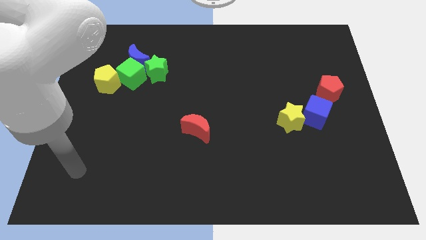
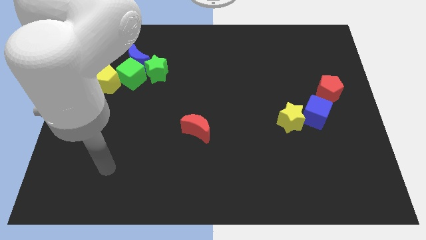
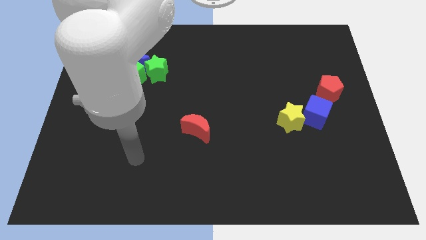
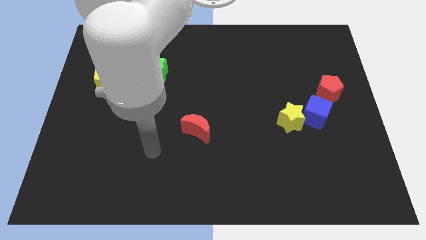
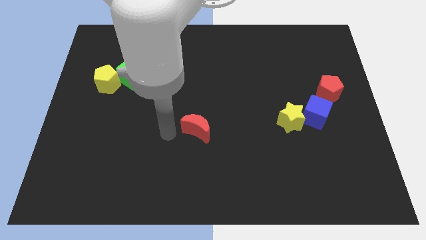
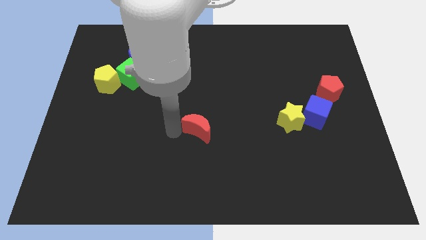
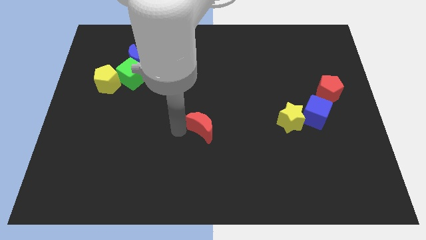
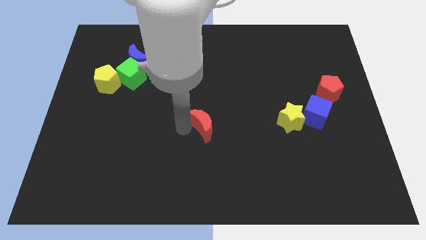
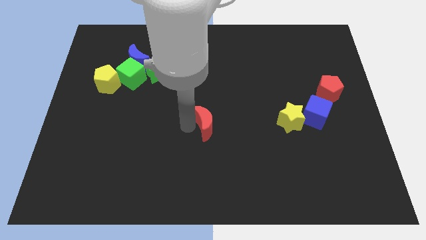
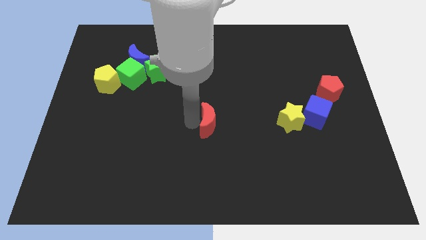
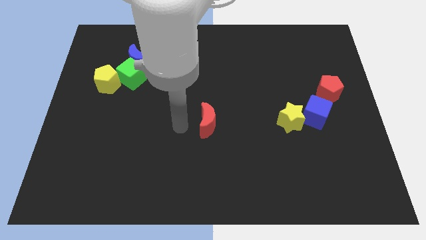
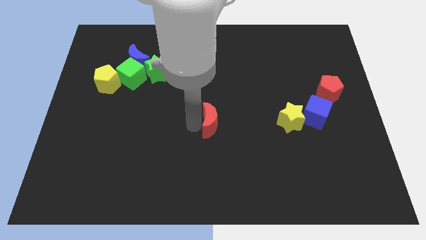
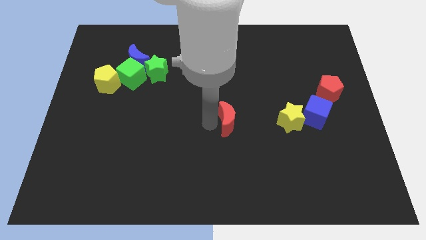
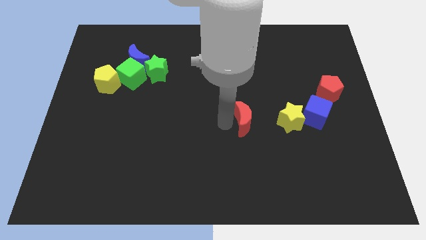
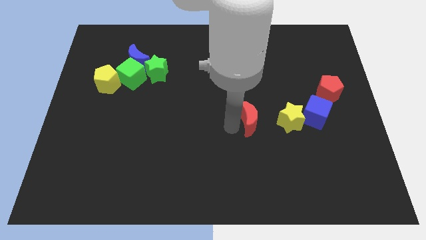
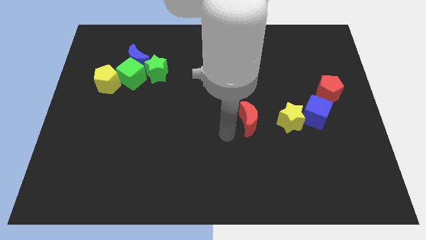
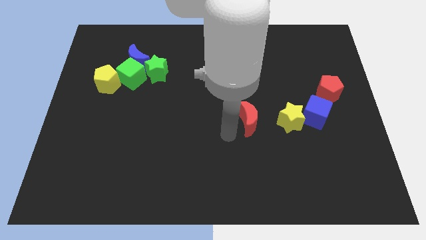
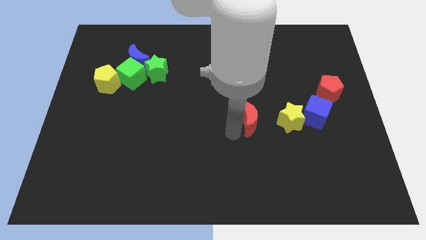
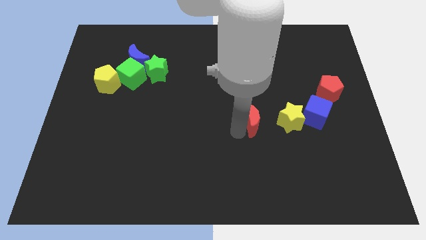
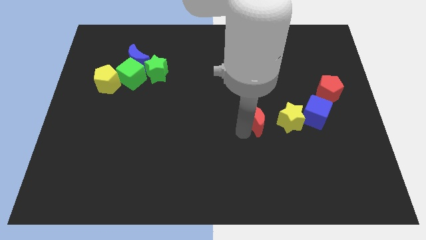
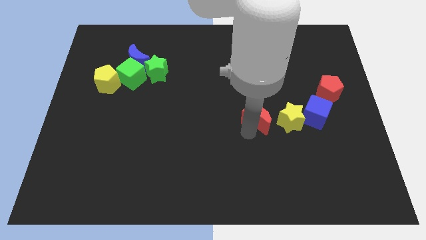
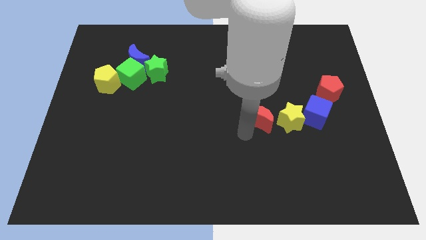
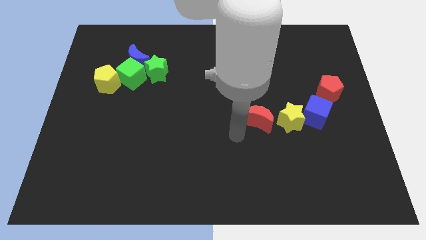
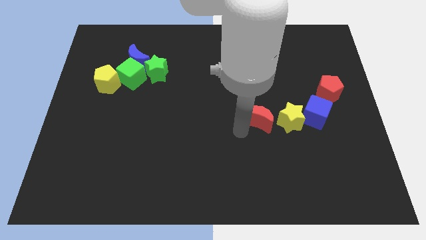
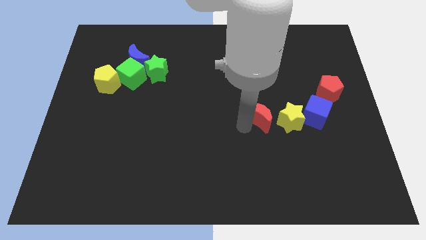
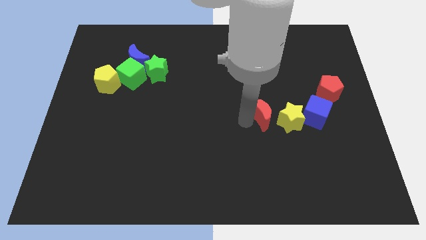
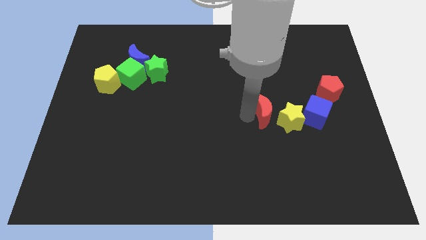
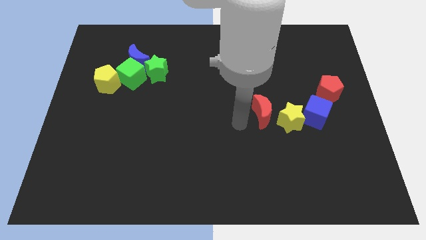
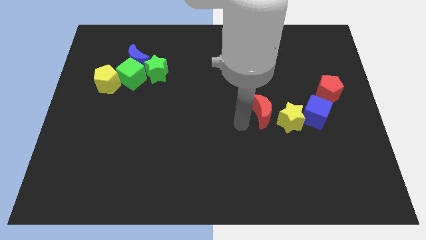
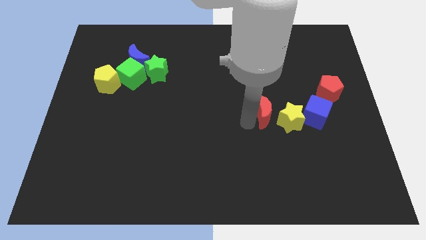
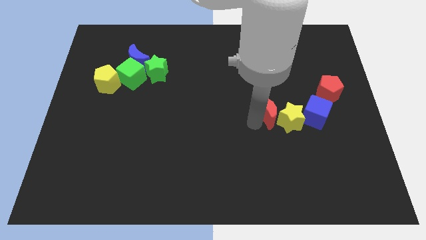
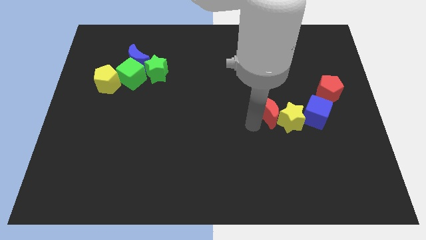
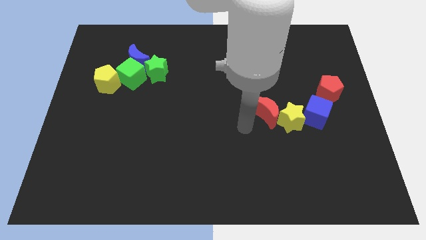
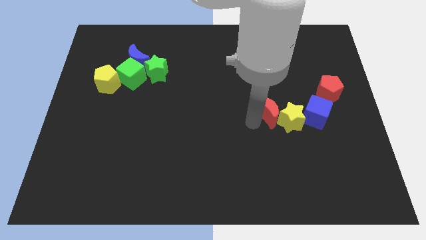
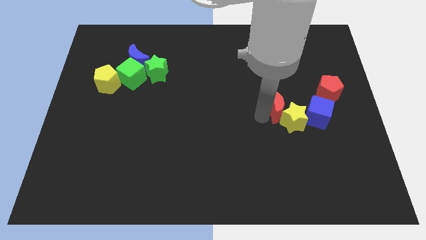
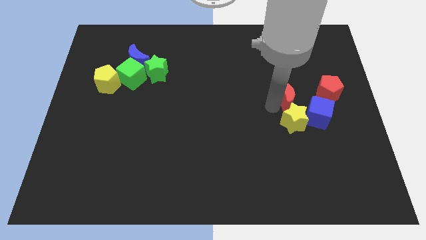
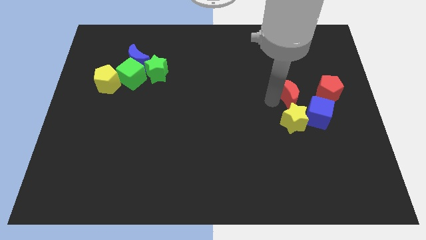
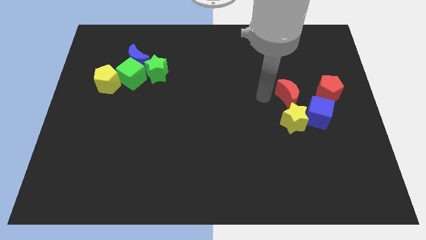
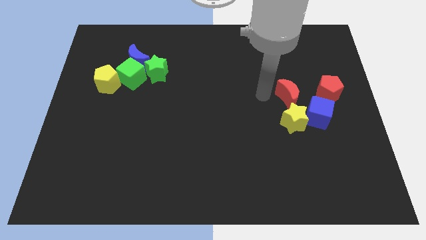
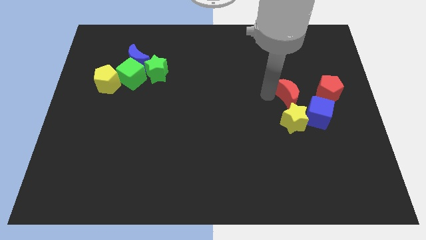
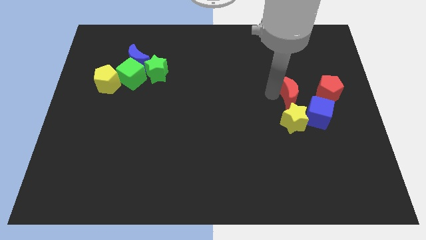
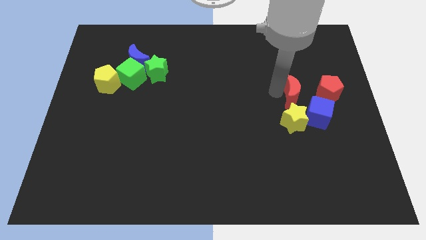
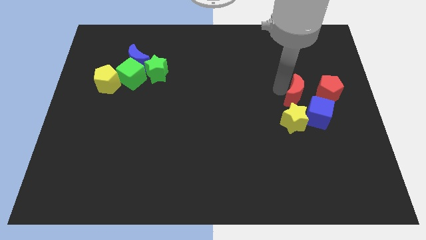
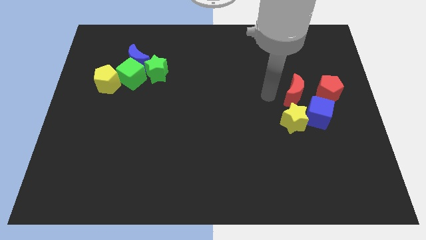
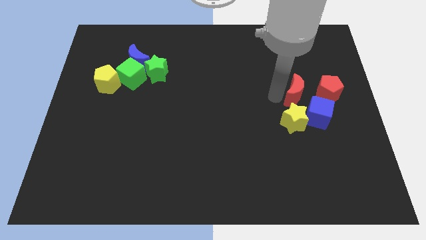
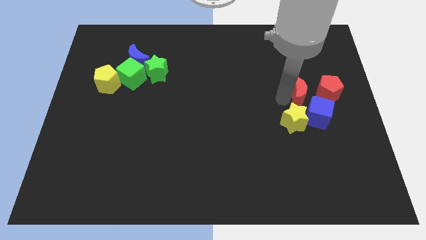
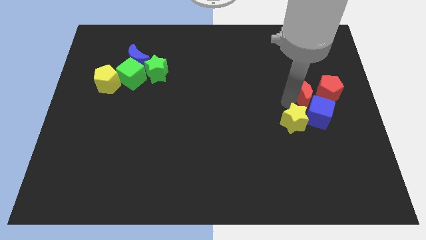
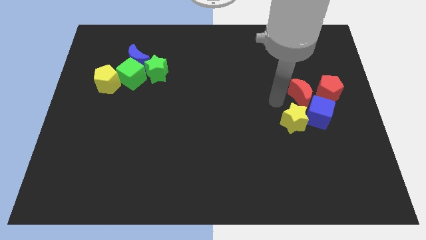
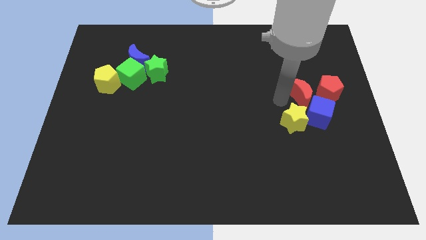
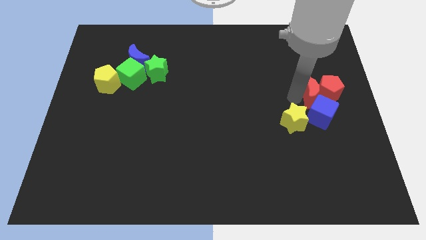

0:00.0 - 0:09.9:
move the red moon close to the red pentagon

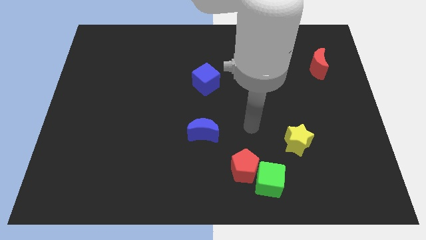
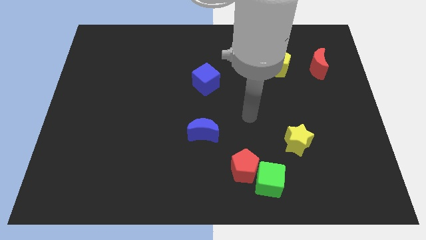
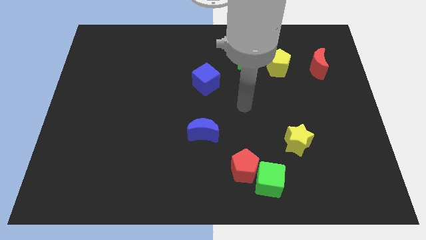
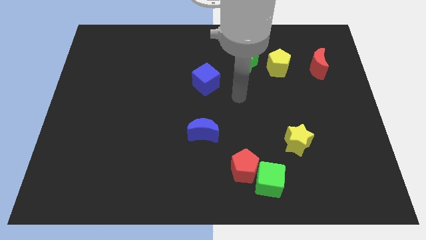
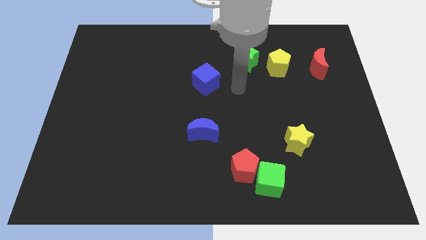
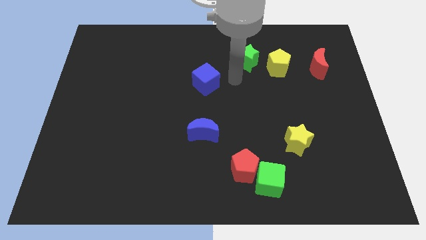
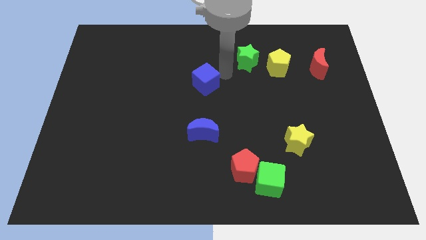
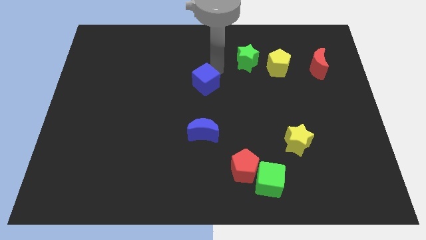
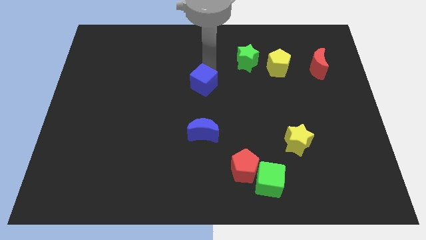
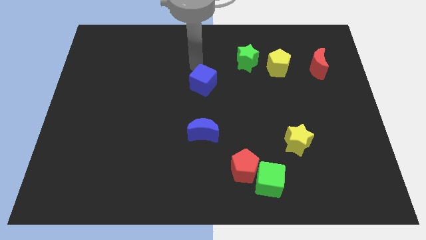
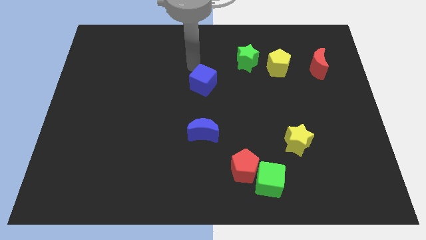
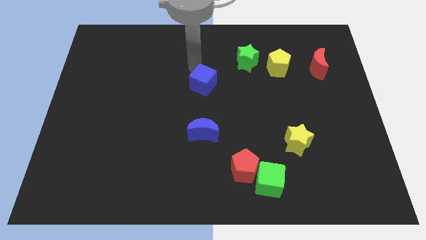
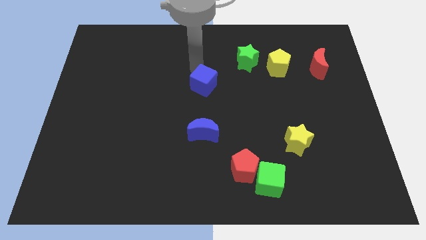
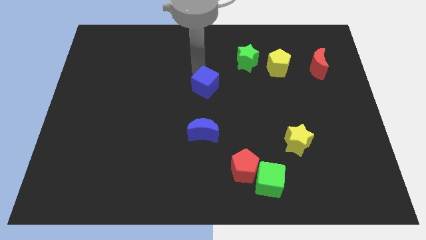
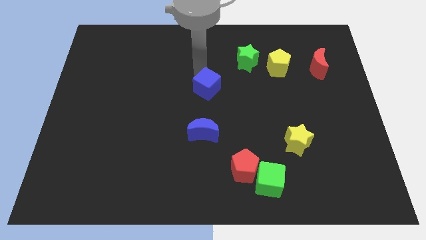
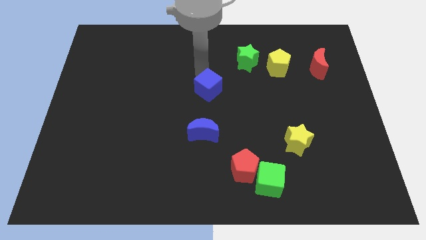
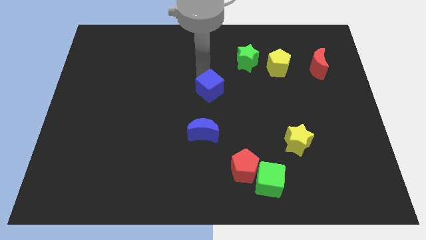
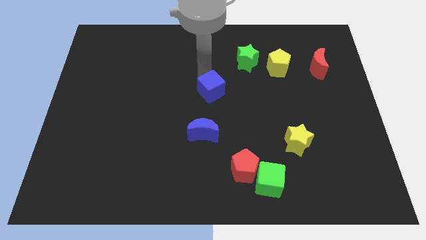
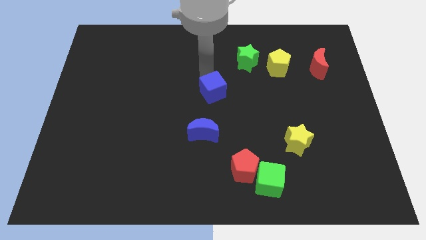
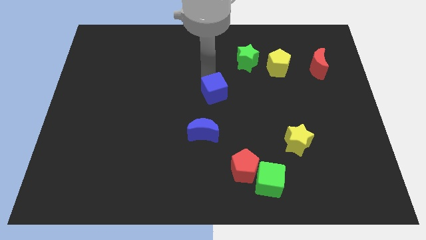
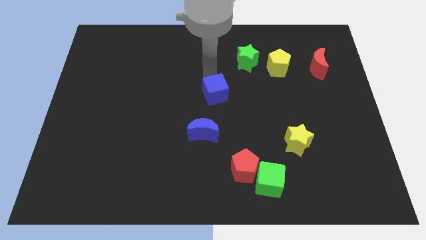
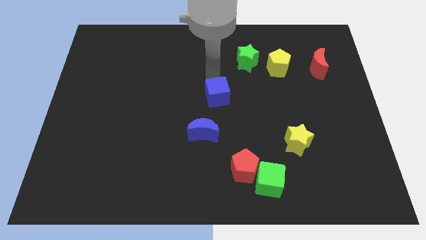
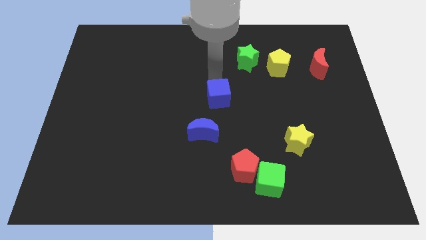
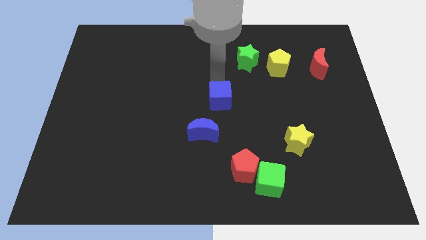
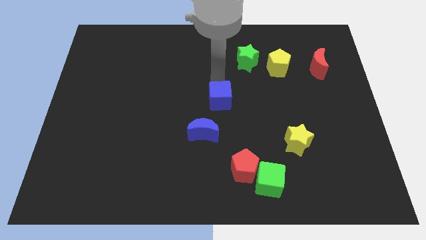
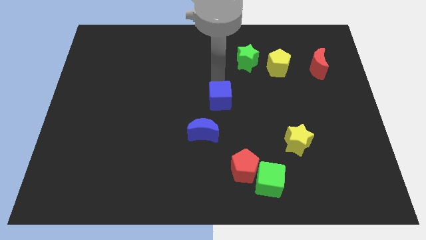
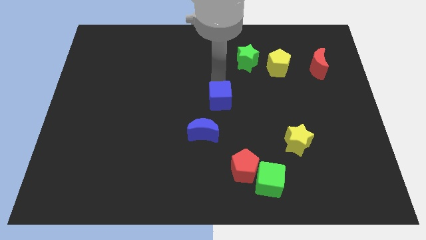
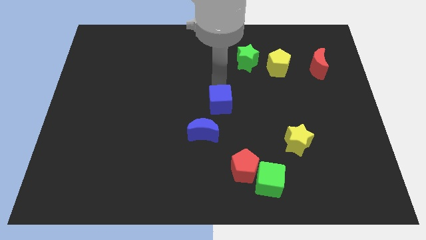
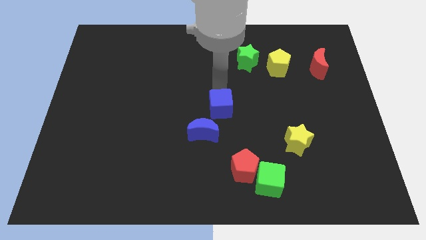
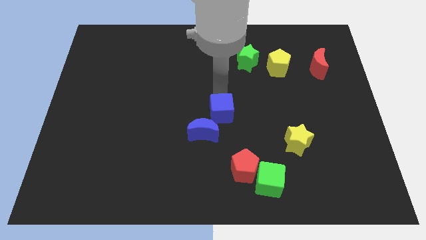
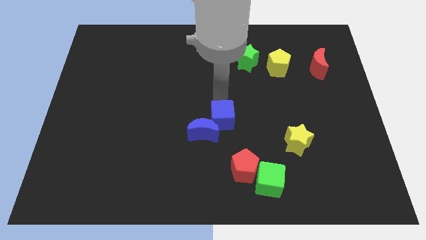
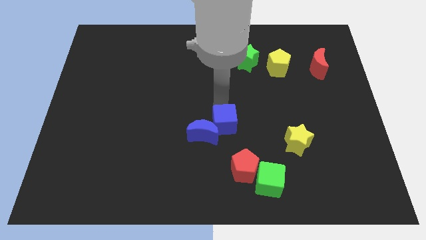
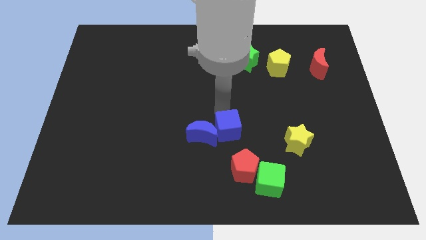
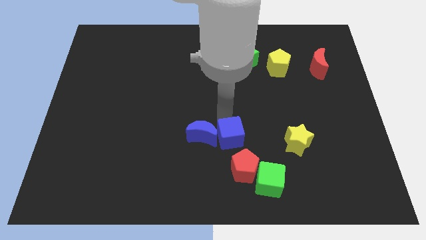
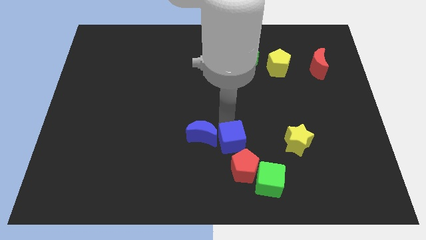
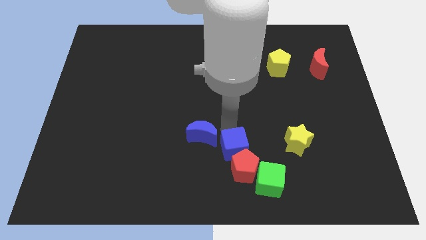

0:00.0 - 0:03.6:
slide the blue cube to the red pentagon

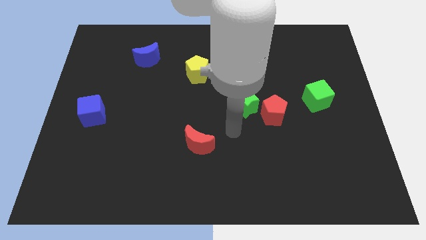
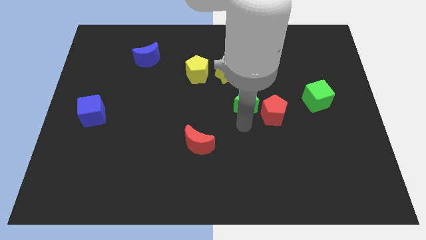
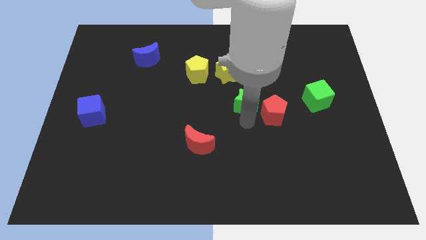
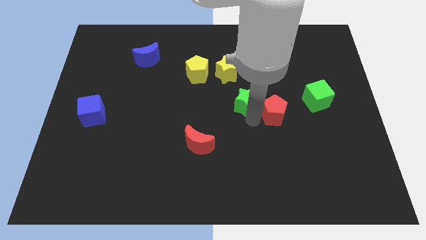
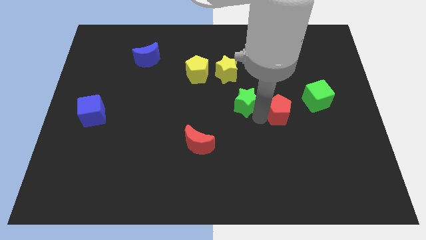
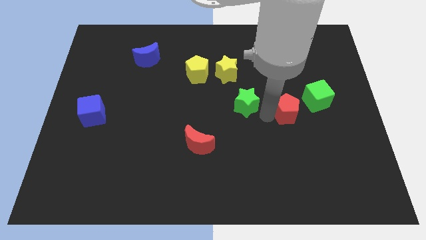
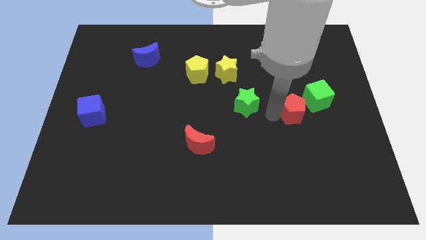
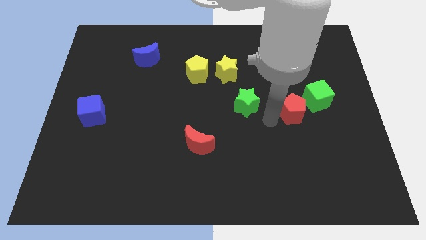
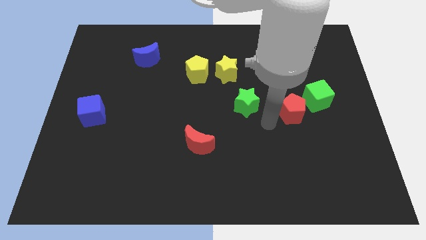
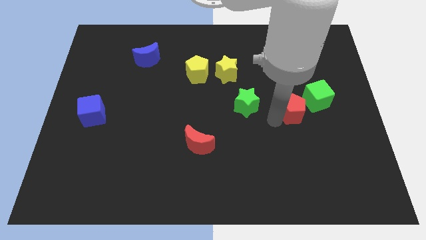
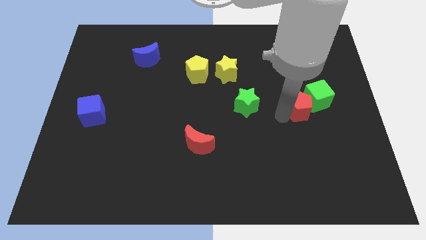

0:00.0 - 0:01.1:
move the red pentagon close to the green cube
